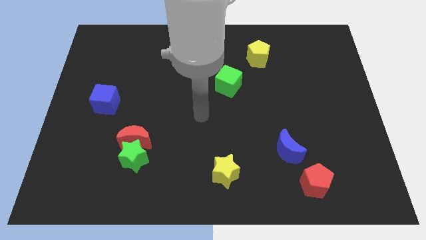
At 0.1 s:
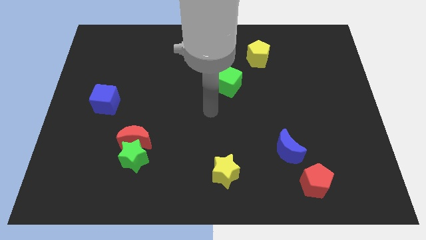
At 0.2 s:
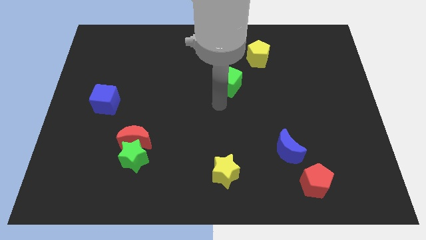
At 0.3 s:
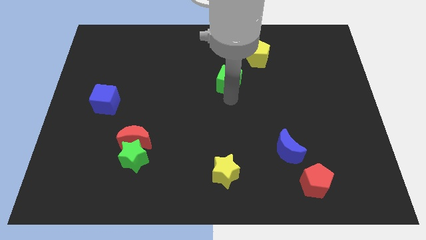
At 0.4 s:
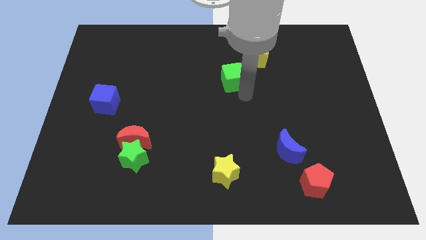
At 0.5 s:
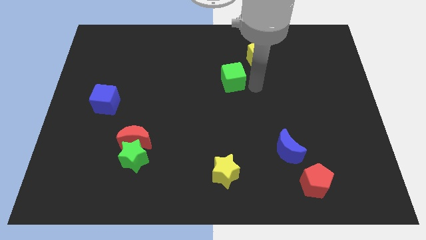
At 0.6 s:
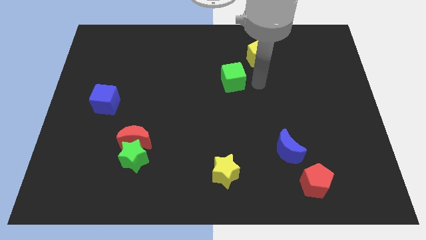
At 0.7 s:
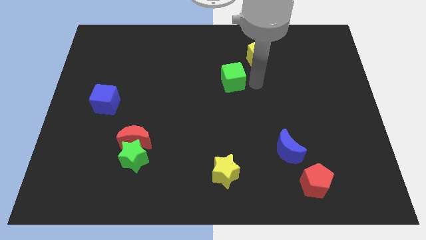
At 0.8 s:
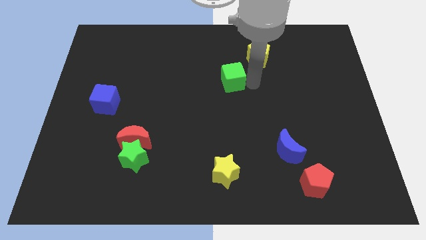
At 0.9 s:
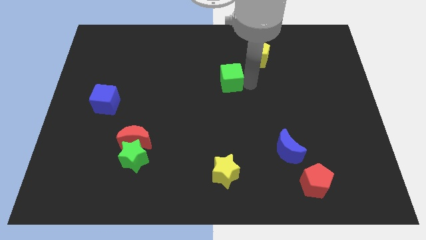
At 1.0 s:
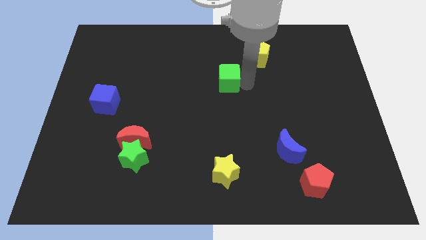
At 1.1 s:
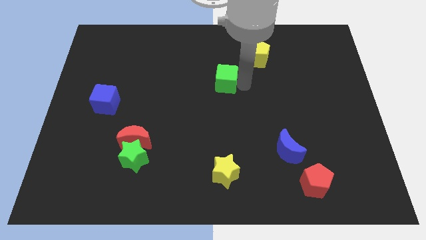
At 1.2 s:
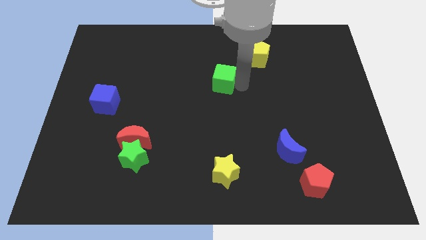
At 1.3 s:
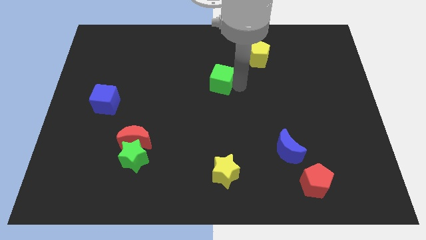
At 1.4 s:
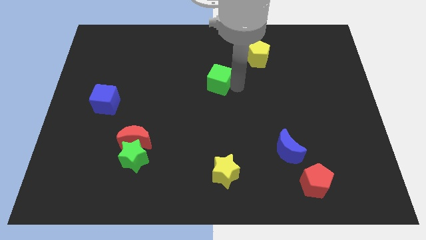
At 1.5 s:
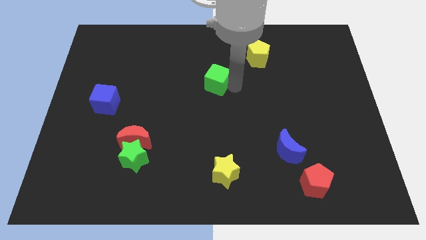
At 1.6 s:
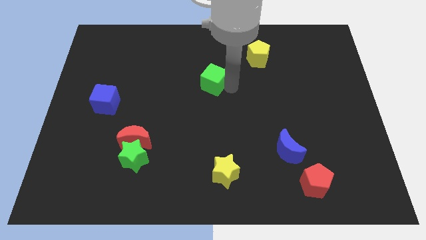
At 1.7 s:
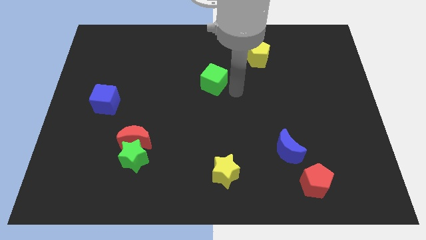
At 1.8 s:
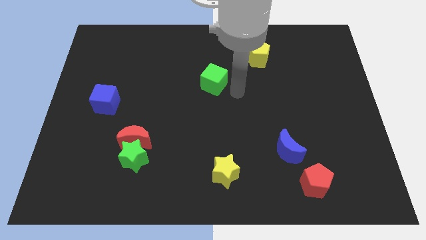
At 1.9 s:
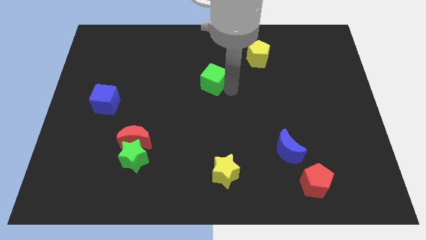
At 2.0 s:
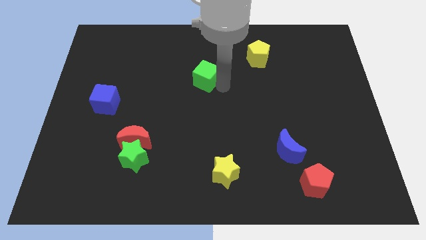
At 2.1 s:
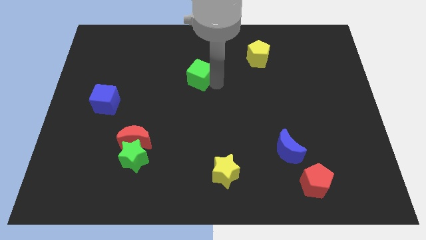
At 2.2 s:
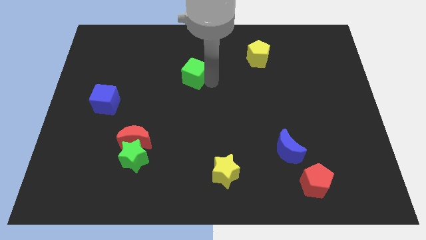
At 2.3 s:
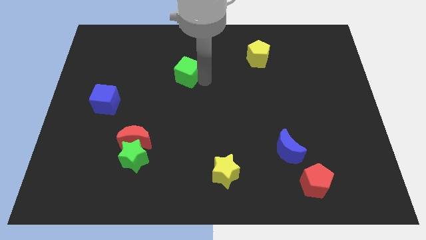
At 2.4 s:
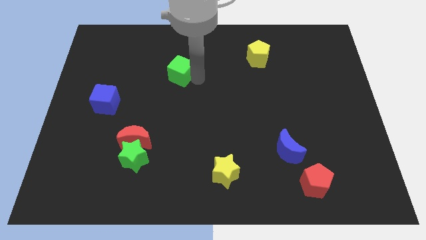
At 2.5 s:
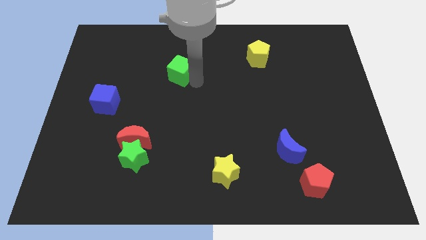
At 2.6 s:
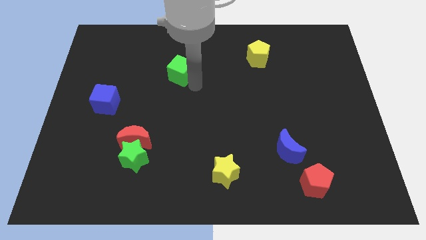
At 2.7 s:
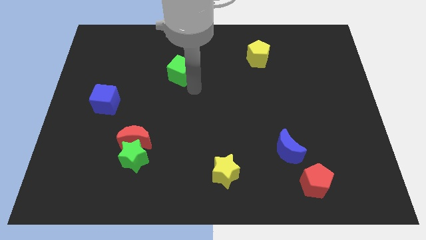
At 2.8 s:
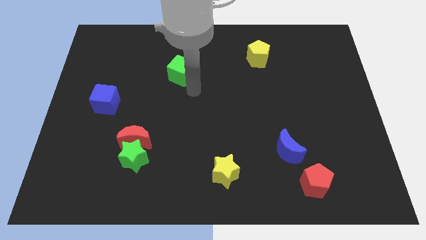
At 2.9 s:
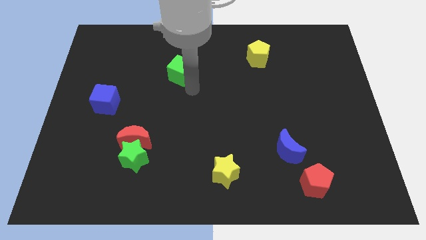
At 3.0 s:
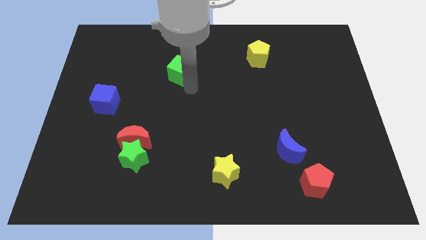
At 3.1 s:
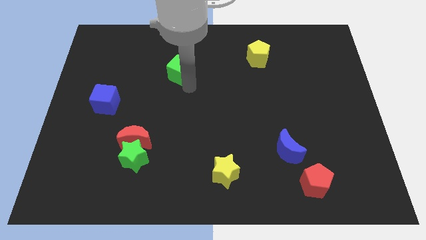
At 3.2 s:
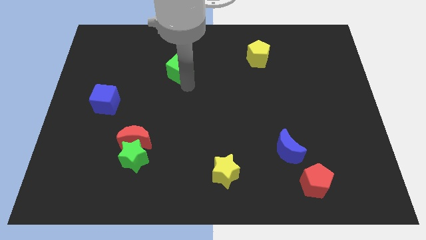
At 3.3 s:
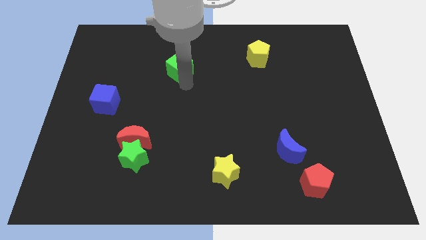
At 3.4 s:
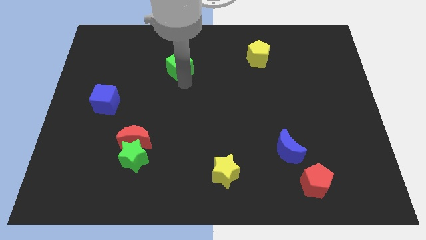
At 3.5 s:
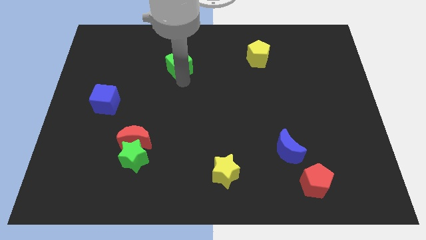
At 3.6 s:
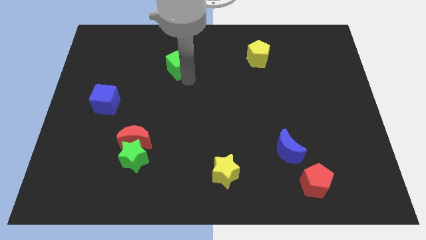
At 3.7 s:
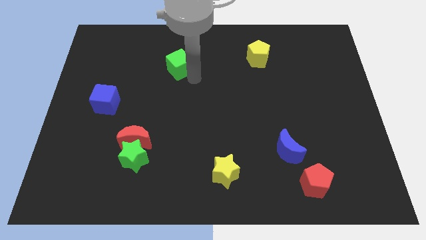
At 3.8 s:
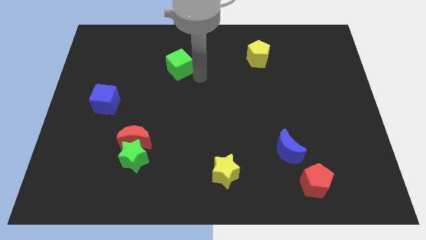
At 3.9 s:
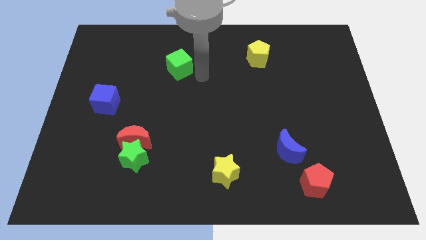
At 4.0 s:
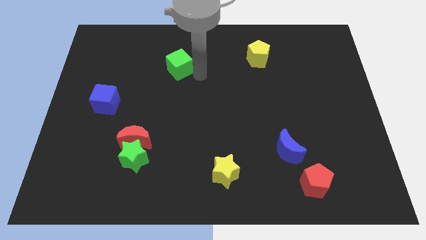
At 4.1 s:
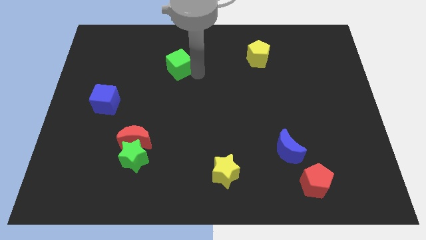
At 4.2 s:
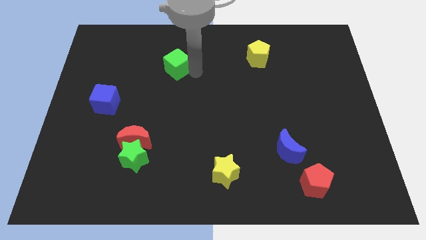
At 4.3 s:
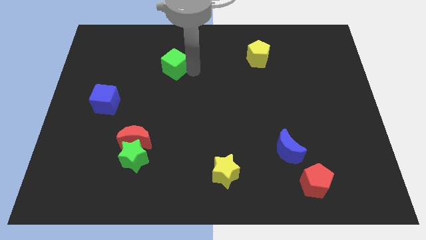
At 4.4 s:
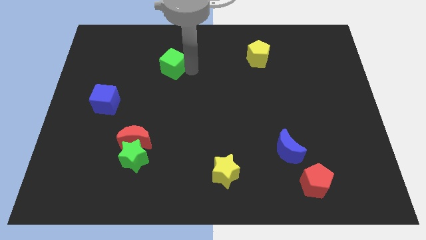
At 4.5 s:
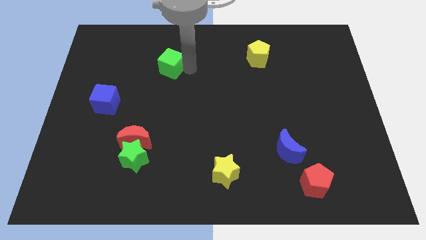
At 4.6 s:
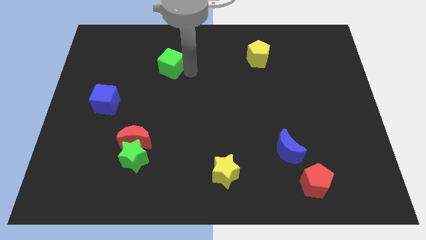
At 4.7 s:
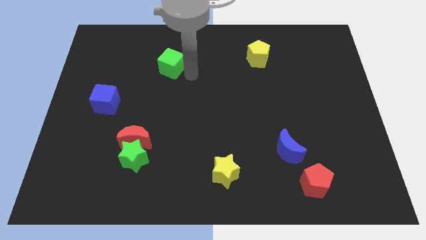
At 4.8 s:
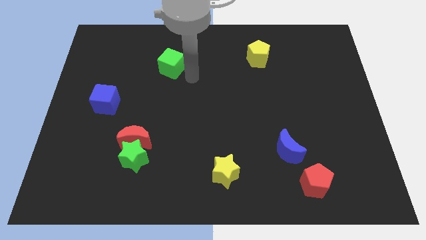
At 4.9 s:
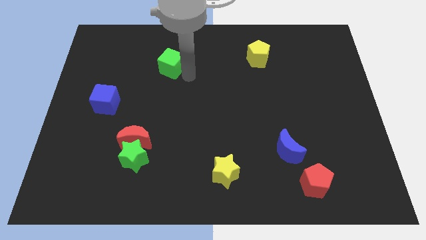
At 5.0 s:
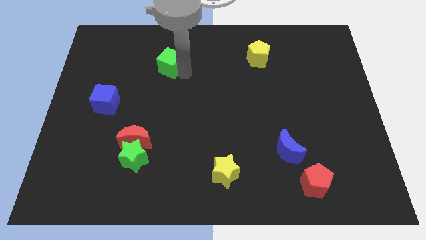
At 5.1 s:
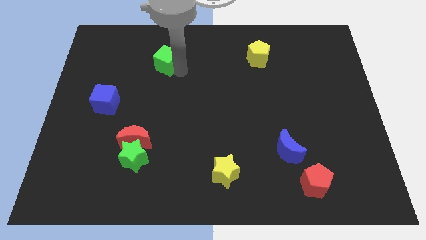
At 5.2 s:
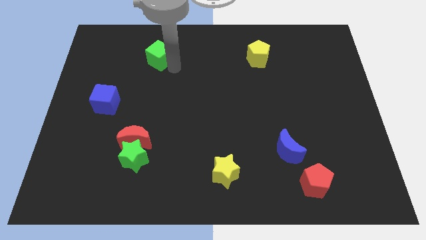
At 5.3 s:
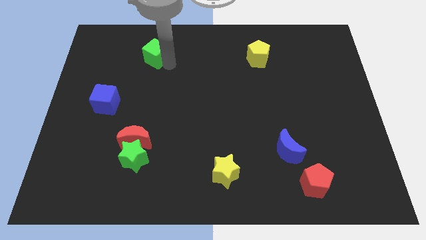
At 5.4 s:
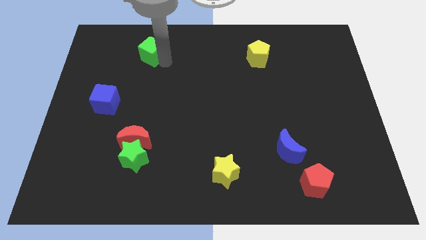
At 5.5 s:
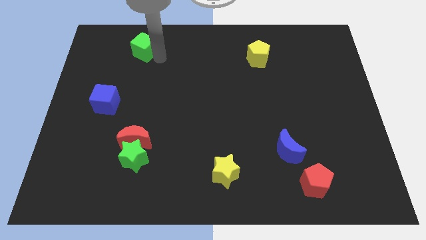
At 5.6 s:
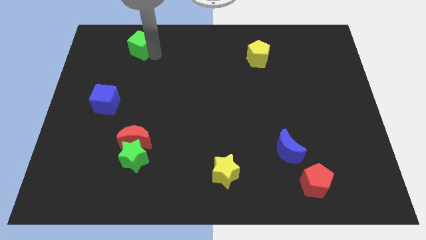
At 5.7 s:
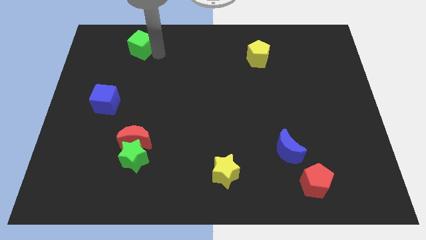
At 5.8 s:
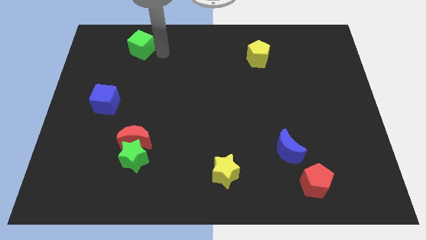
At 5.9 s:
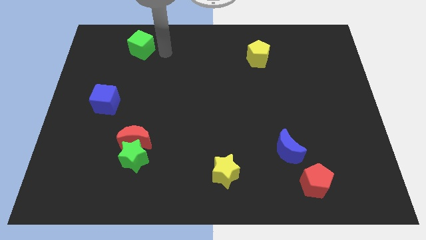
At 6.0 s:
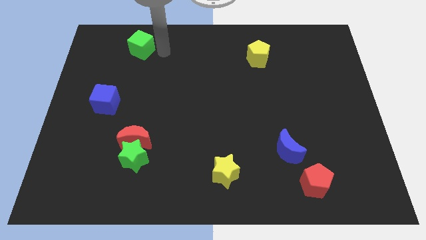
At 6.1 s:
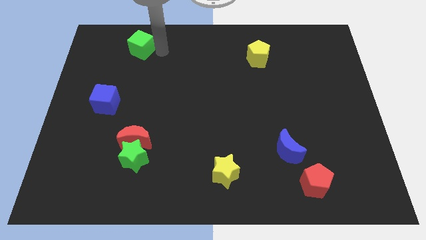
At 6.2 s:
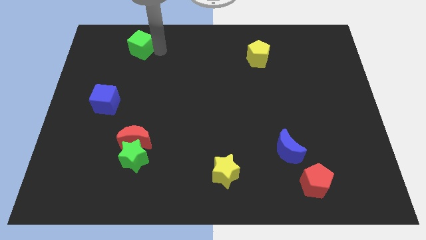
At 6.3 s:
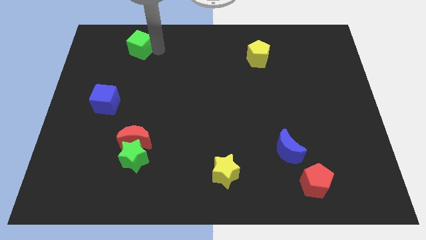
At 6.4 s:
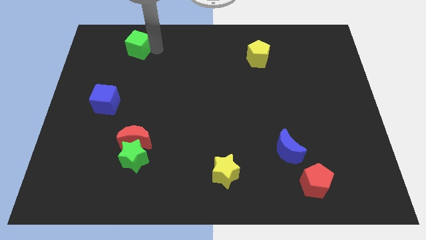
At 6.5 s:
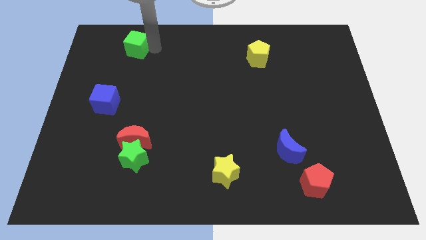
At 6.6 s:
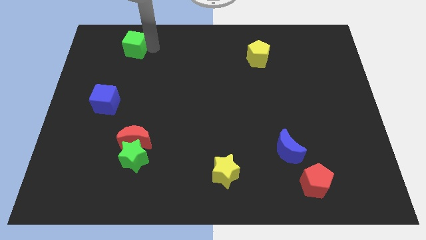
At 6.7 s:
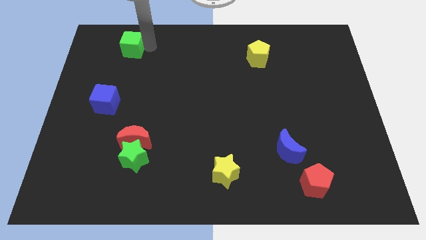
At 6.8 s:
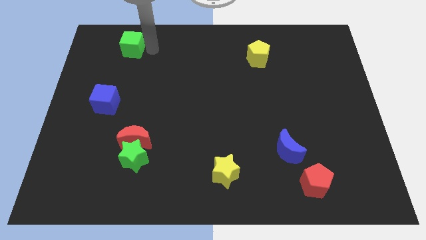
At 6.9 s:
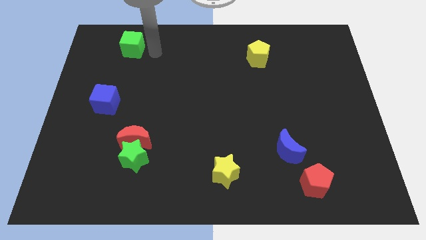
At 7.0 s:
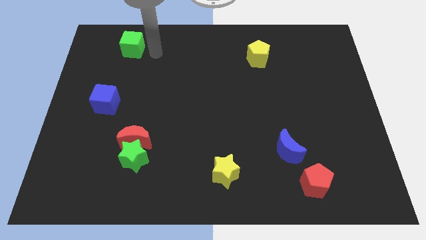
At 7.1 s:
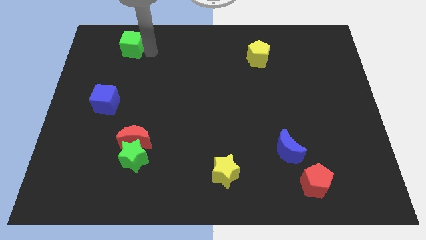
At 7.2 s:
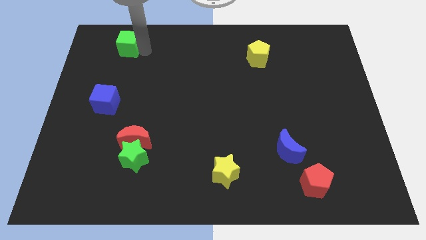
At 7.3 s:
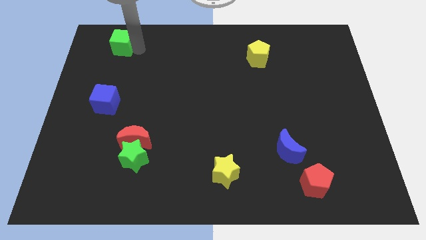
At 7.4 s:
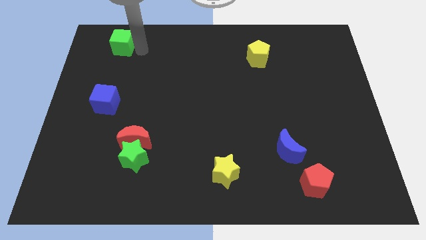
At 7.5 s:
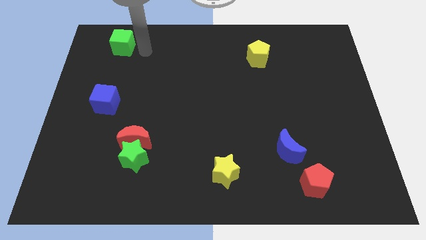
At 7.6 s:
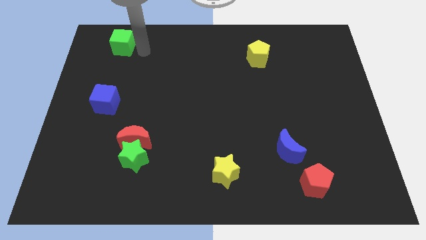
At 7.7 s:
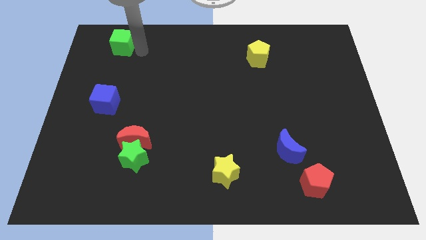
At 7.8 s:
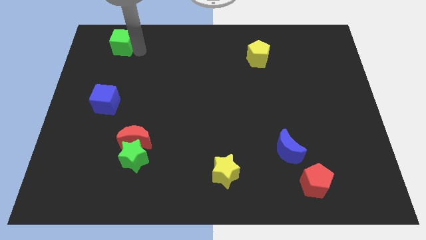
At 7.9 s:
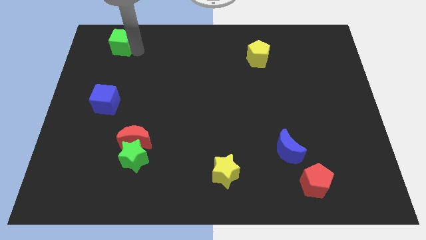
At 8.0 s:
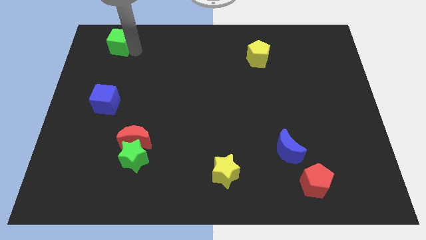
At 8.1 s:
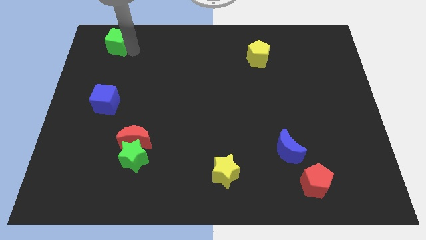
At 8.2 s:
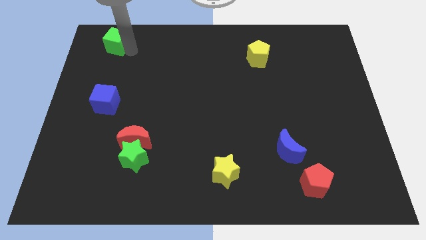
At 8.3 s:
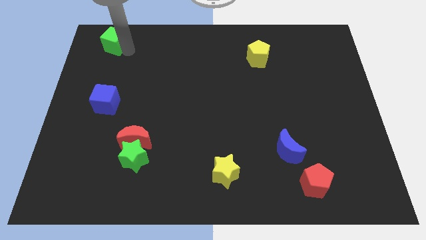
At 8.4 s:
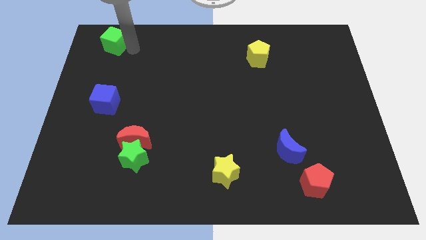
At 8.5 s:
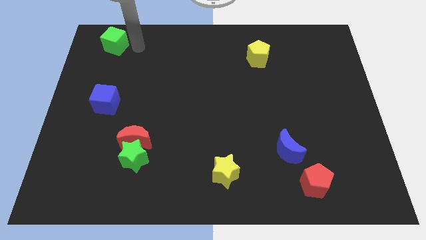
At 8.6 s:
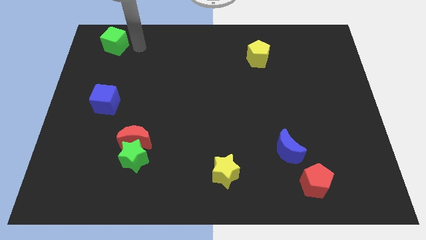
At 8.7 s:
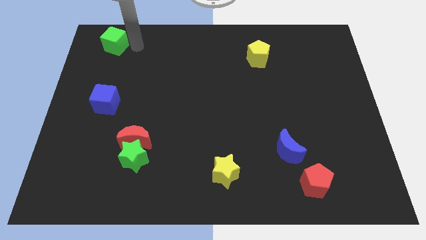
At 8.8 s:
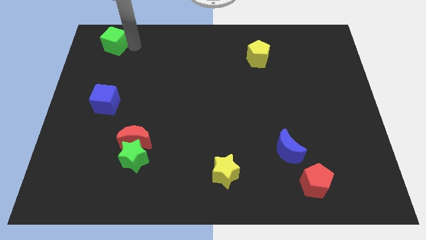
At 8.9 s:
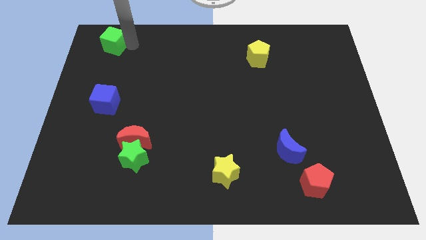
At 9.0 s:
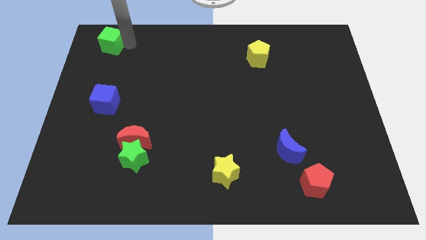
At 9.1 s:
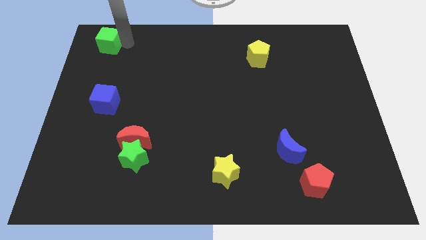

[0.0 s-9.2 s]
move the green cube to the upper left corner
